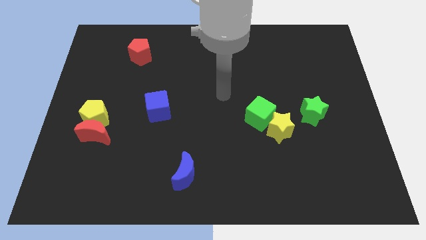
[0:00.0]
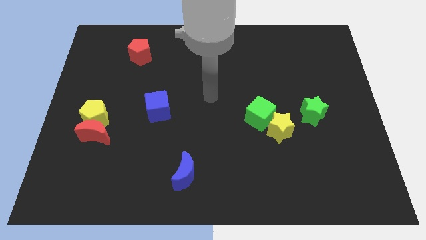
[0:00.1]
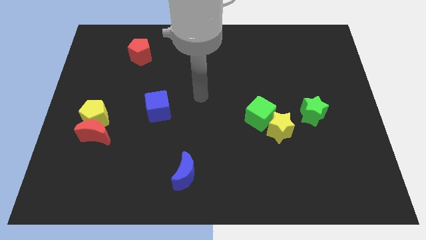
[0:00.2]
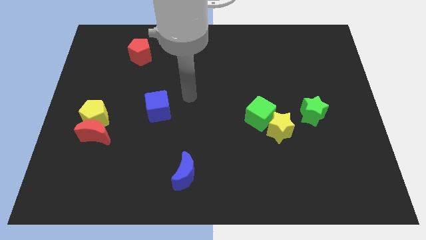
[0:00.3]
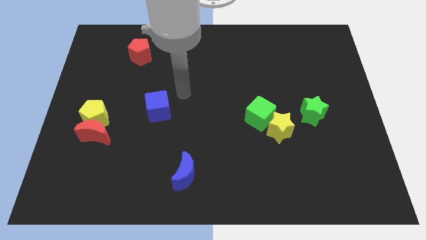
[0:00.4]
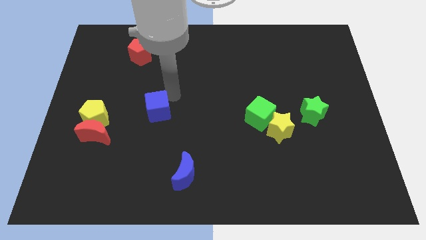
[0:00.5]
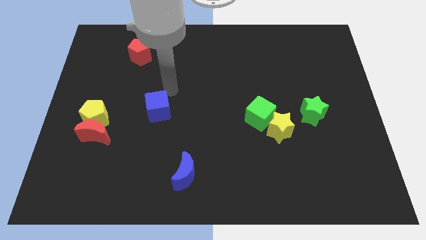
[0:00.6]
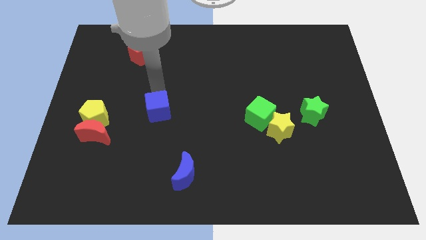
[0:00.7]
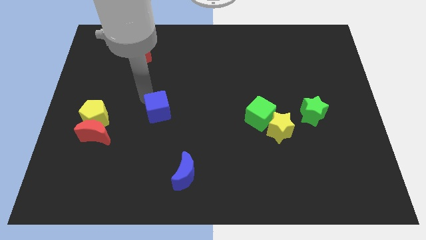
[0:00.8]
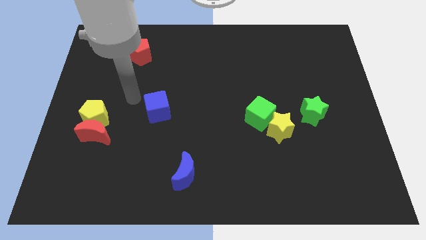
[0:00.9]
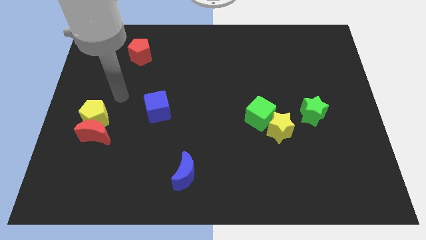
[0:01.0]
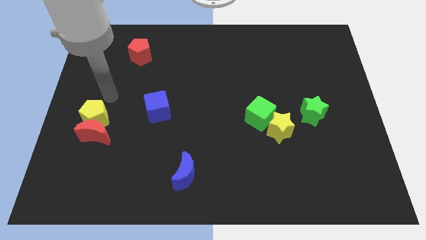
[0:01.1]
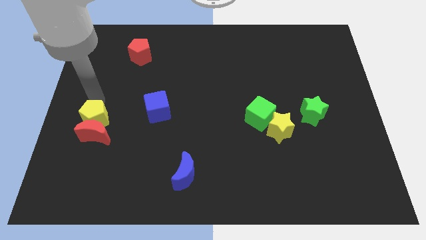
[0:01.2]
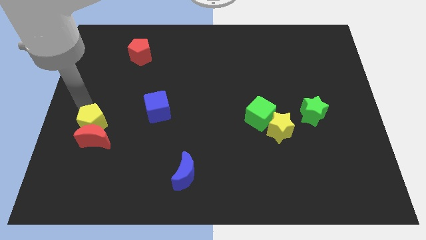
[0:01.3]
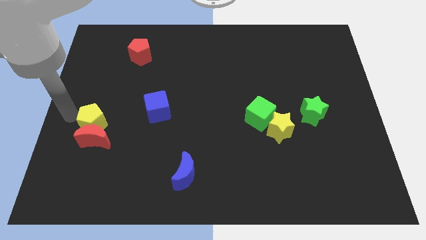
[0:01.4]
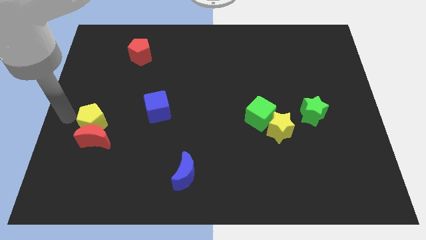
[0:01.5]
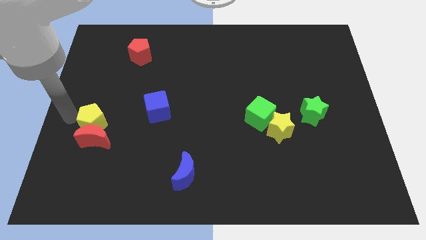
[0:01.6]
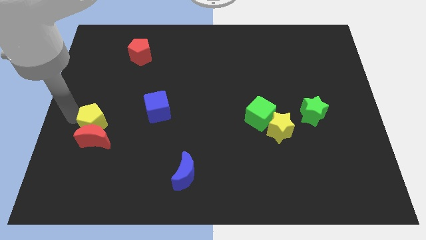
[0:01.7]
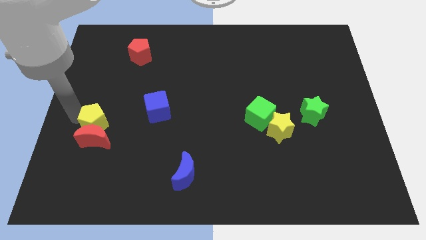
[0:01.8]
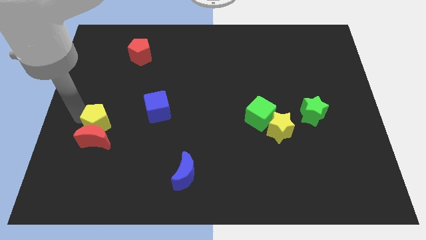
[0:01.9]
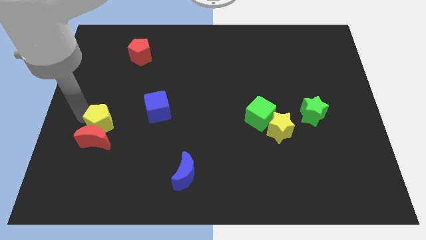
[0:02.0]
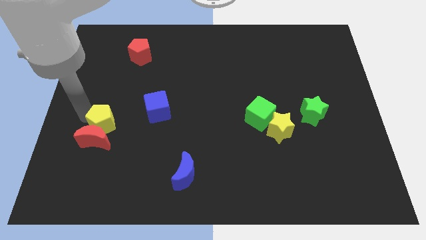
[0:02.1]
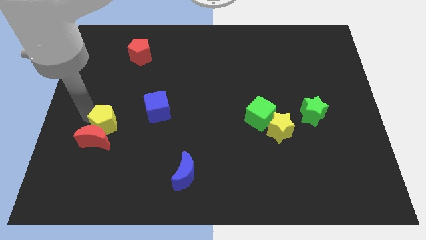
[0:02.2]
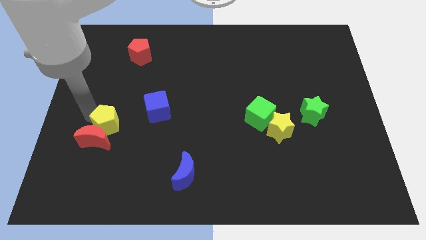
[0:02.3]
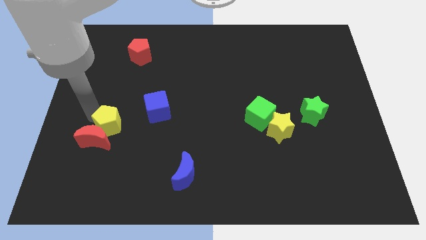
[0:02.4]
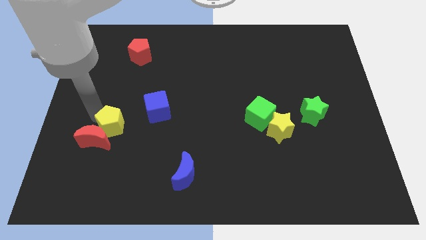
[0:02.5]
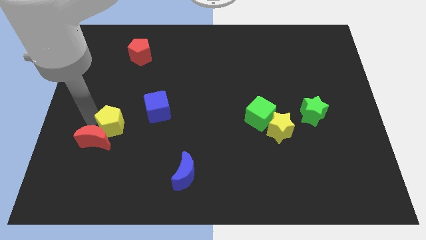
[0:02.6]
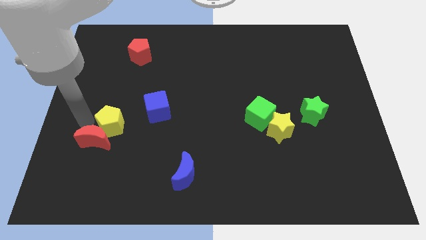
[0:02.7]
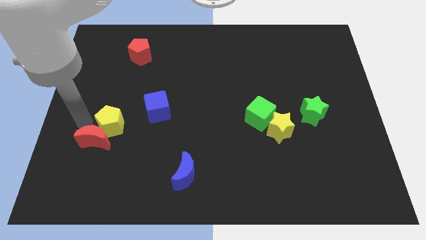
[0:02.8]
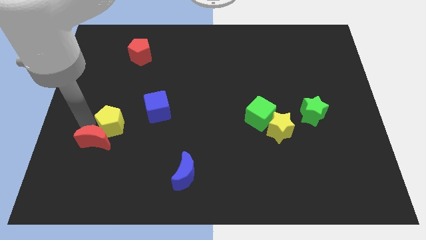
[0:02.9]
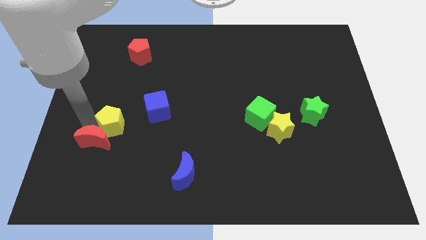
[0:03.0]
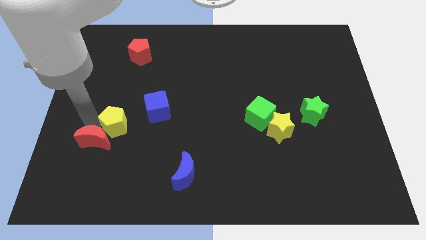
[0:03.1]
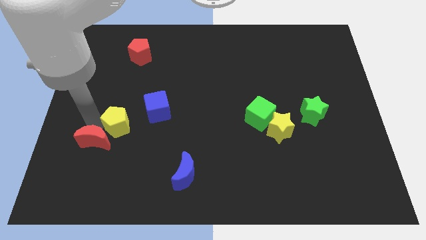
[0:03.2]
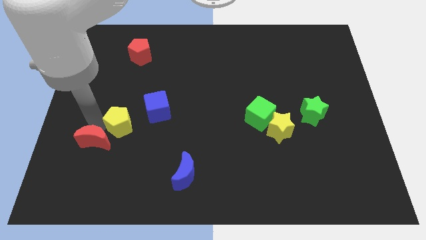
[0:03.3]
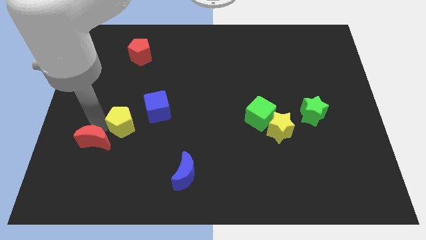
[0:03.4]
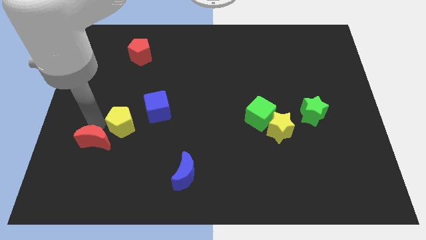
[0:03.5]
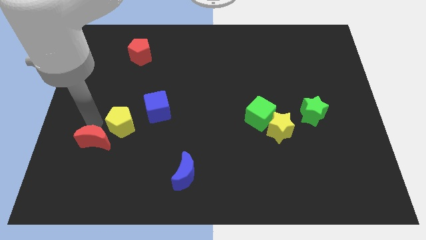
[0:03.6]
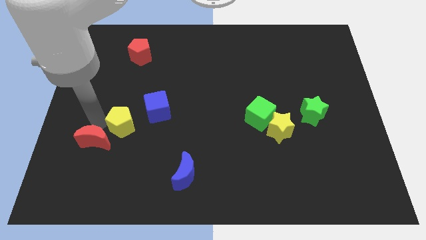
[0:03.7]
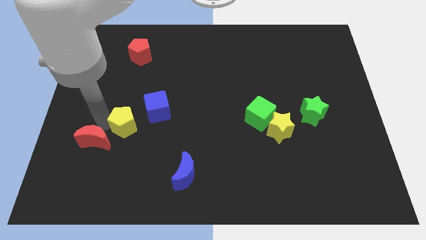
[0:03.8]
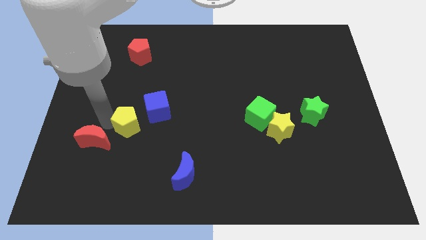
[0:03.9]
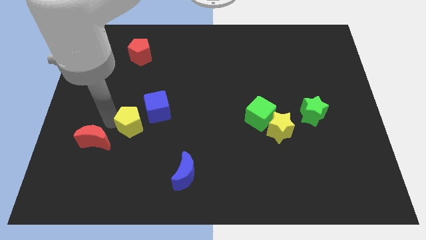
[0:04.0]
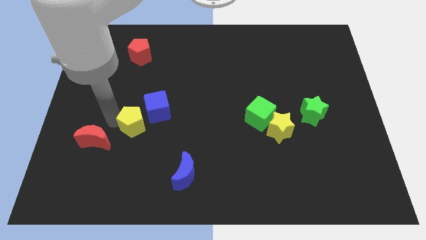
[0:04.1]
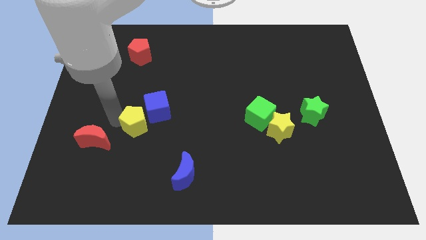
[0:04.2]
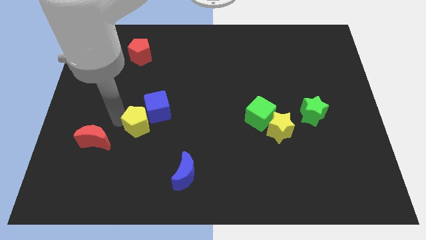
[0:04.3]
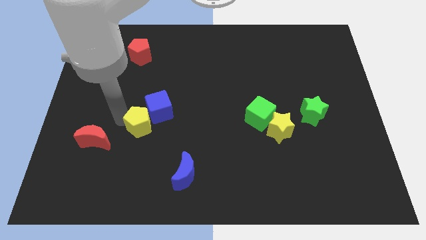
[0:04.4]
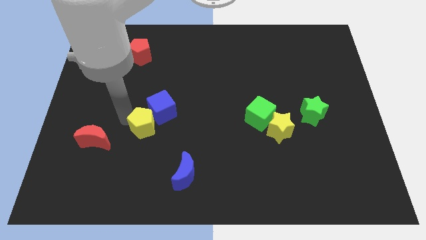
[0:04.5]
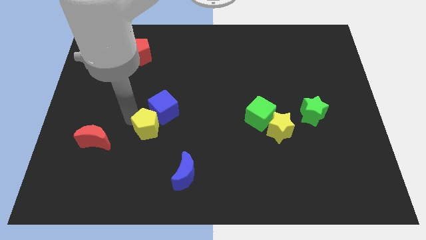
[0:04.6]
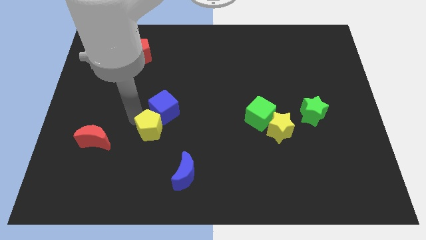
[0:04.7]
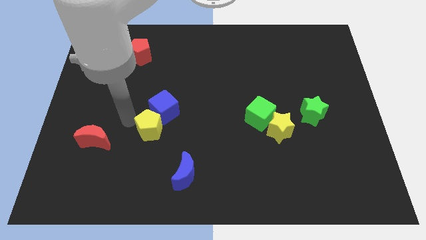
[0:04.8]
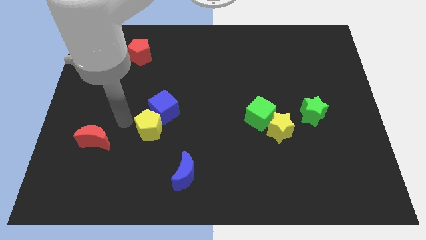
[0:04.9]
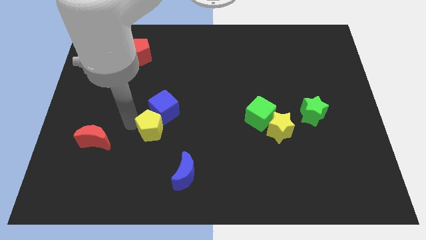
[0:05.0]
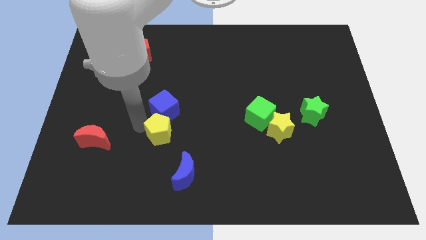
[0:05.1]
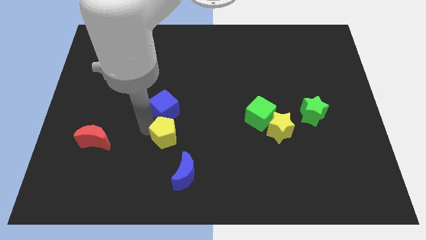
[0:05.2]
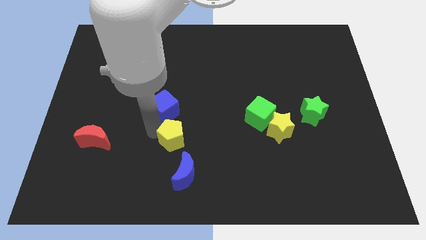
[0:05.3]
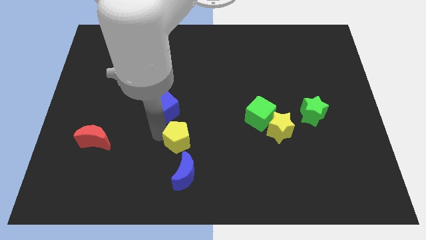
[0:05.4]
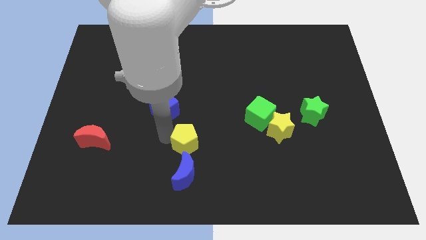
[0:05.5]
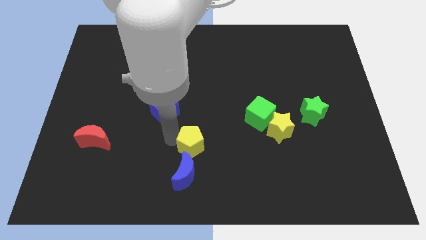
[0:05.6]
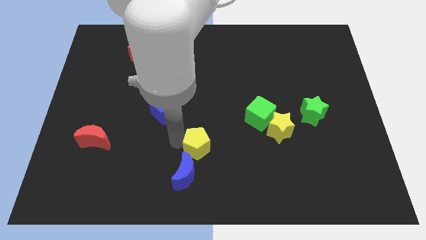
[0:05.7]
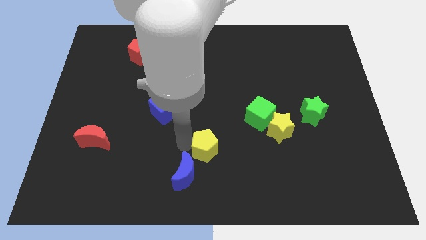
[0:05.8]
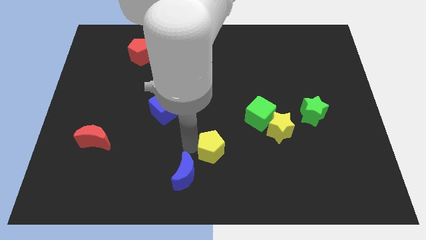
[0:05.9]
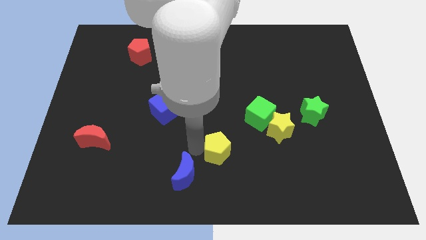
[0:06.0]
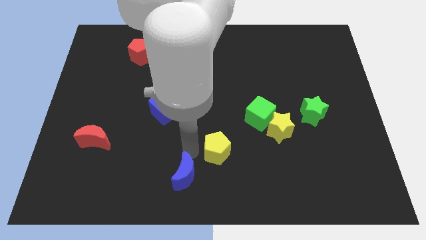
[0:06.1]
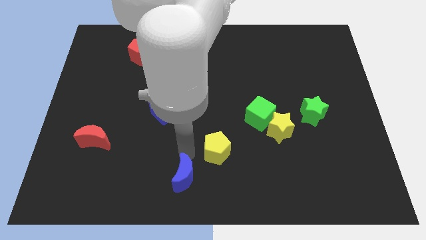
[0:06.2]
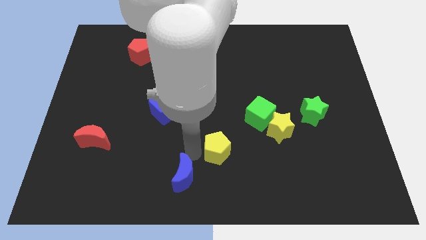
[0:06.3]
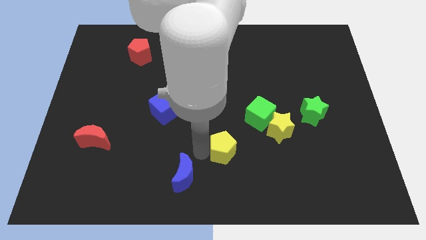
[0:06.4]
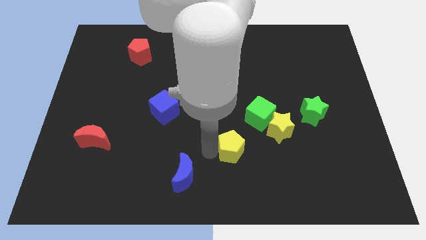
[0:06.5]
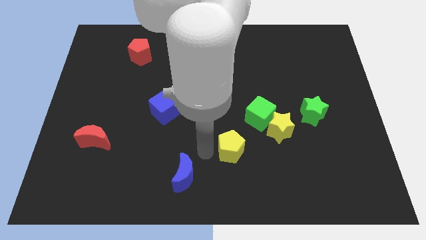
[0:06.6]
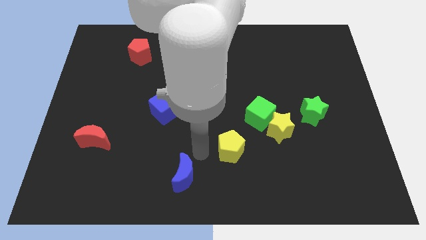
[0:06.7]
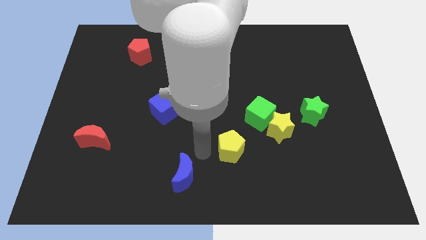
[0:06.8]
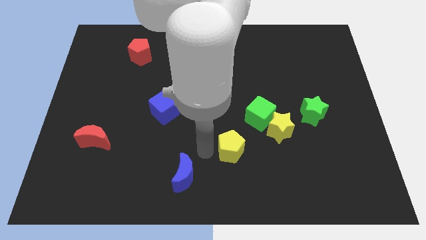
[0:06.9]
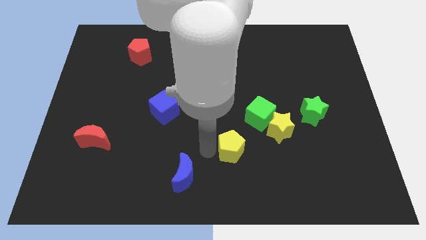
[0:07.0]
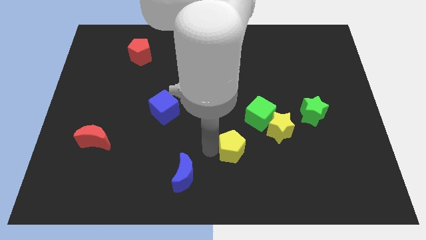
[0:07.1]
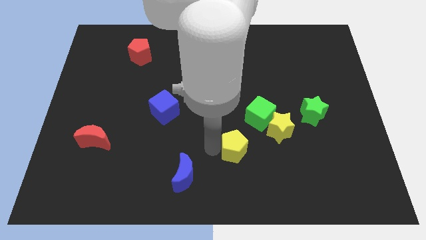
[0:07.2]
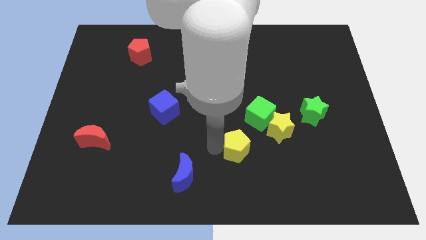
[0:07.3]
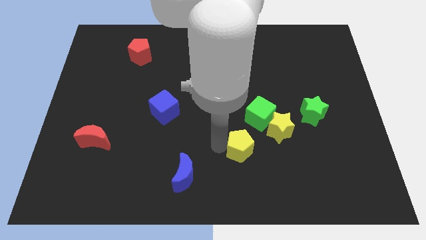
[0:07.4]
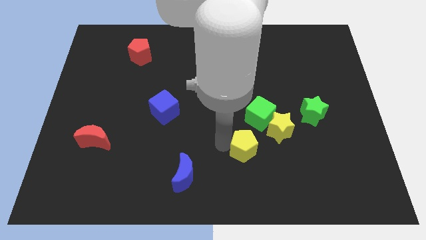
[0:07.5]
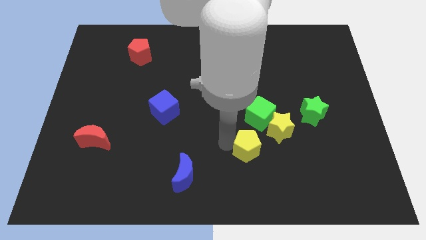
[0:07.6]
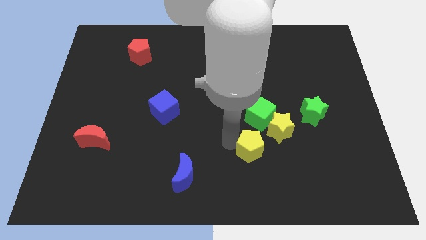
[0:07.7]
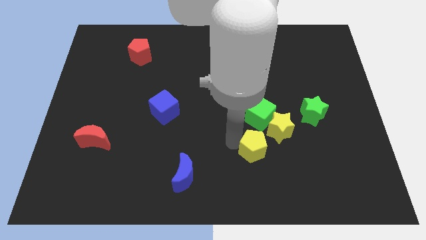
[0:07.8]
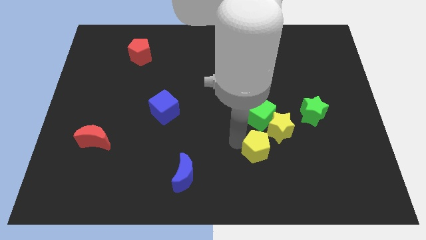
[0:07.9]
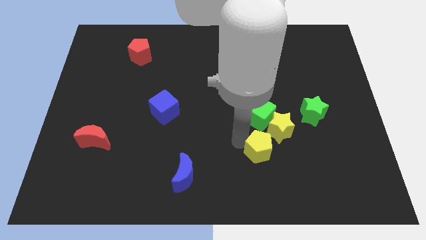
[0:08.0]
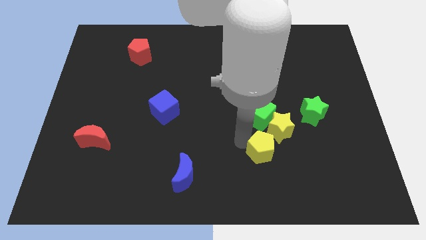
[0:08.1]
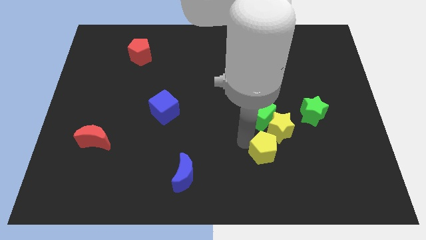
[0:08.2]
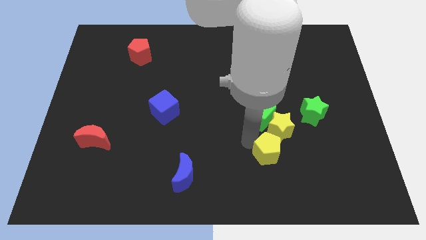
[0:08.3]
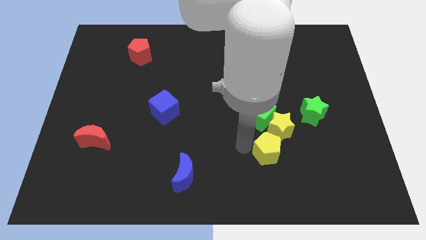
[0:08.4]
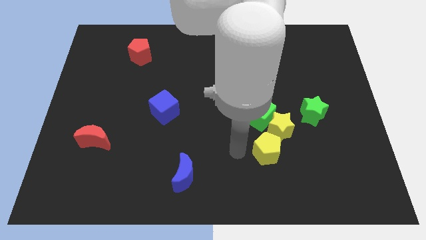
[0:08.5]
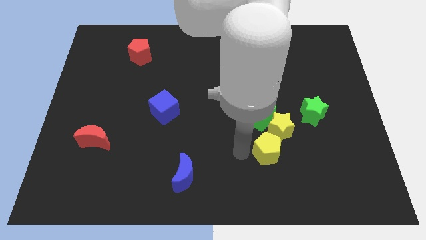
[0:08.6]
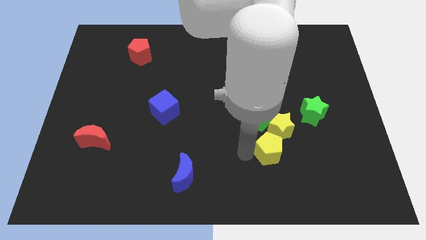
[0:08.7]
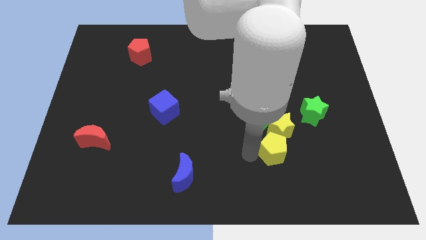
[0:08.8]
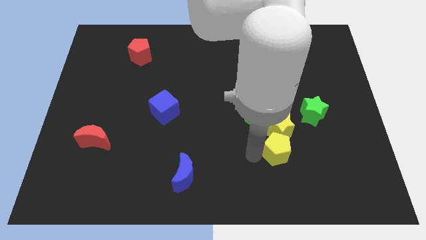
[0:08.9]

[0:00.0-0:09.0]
slide the yellow pentagon diagonally down and to the right of the yellow star
